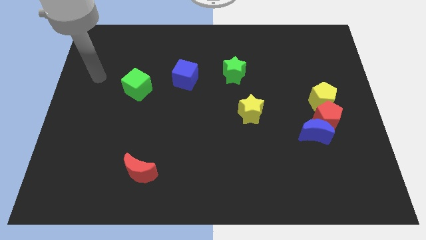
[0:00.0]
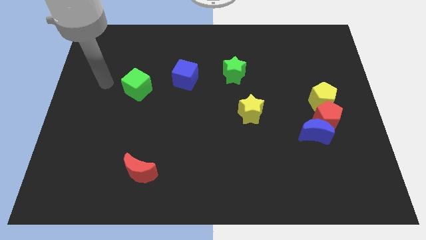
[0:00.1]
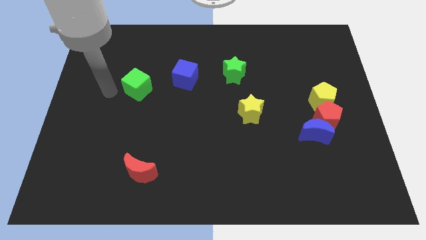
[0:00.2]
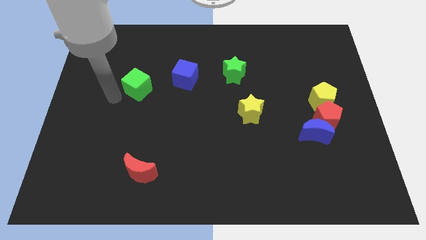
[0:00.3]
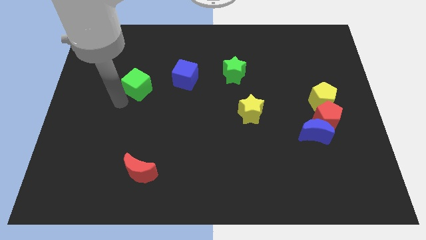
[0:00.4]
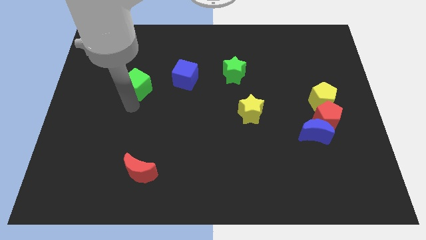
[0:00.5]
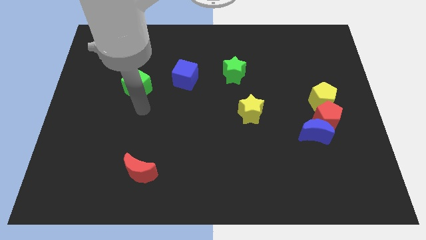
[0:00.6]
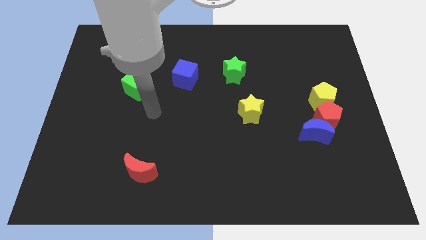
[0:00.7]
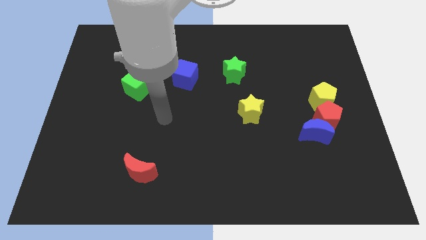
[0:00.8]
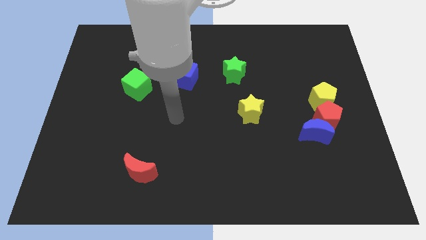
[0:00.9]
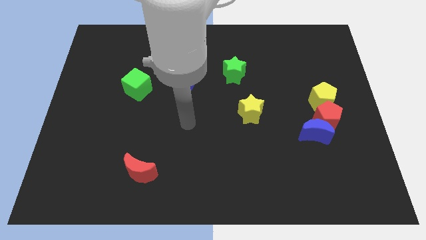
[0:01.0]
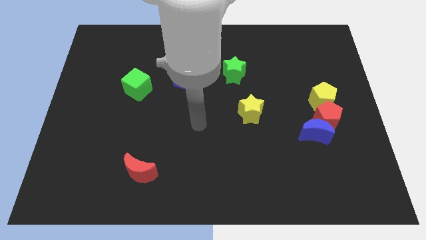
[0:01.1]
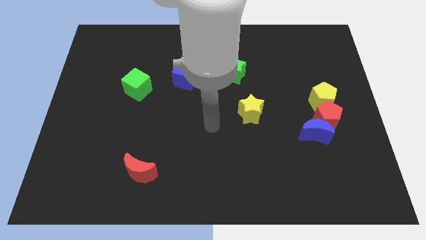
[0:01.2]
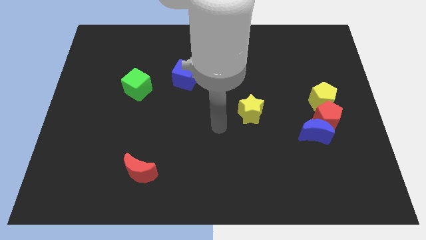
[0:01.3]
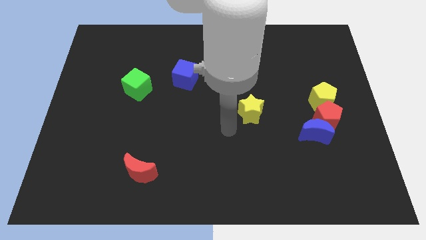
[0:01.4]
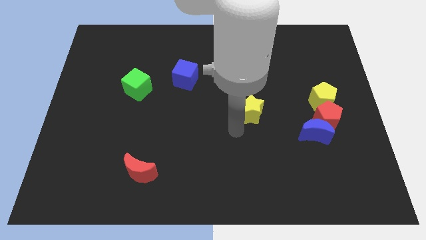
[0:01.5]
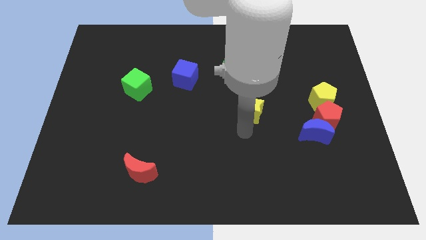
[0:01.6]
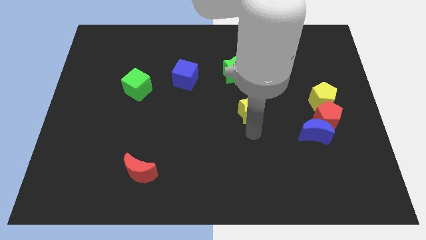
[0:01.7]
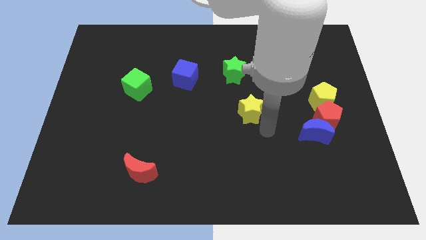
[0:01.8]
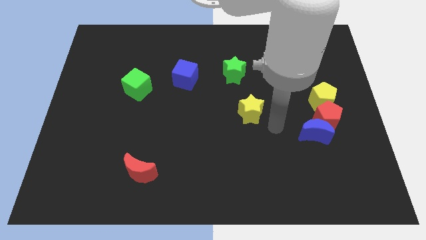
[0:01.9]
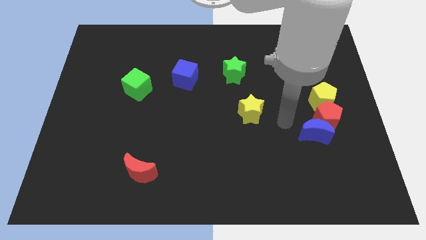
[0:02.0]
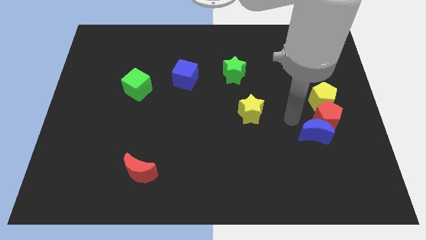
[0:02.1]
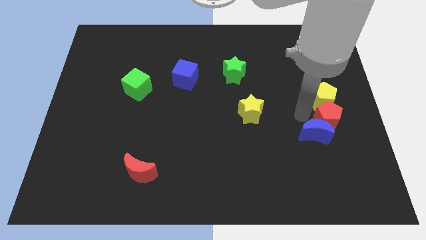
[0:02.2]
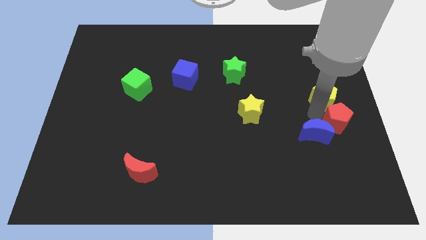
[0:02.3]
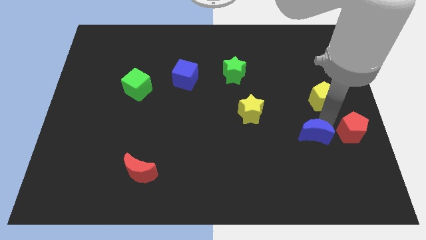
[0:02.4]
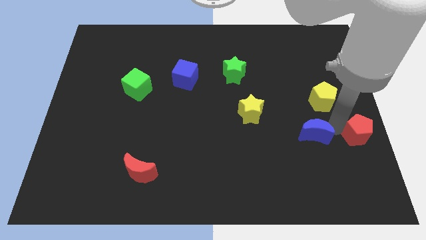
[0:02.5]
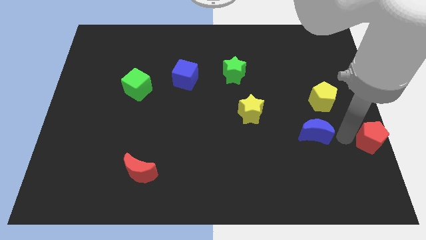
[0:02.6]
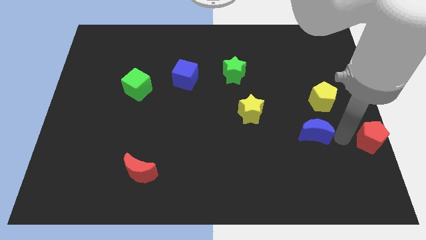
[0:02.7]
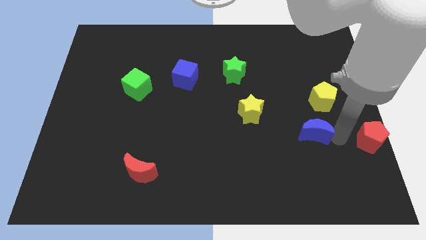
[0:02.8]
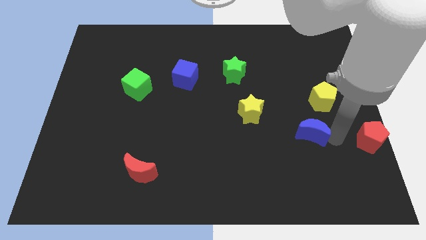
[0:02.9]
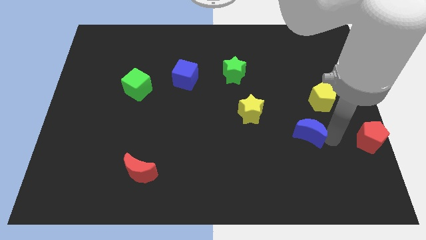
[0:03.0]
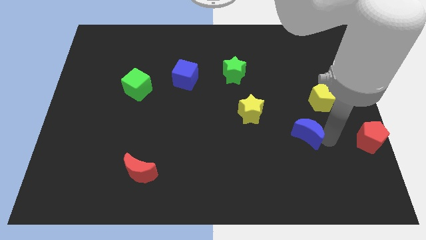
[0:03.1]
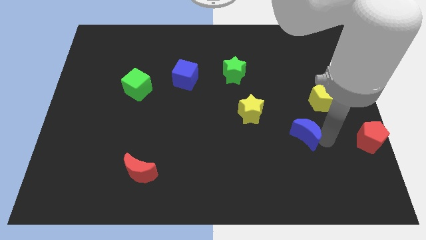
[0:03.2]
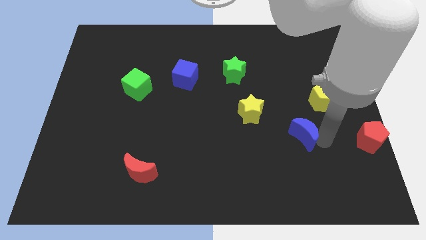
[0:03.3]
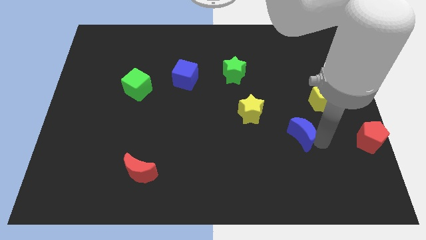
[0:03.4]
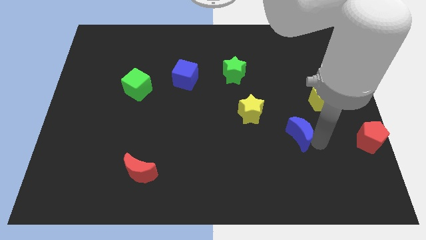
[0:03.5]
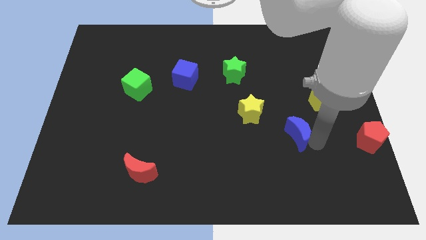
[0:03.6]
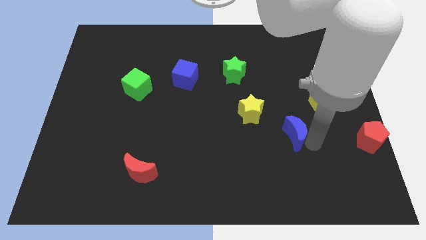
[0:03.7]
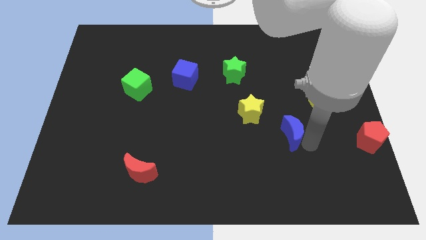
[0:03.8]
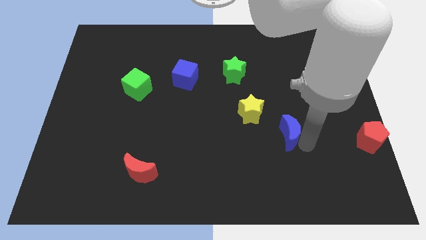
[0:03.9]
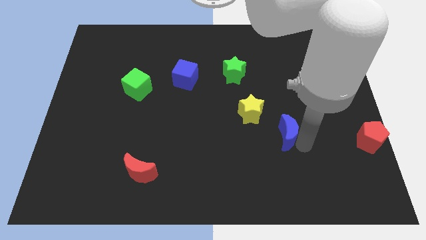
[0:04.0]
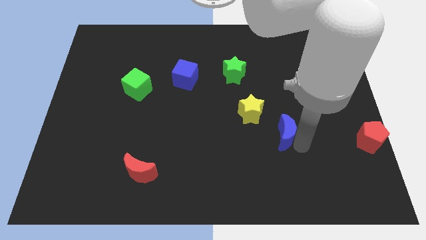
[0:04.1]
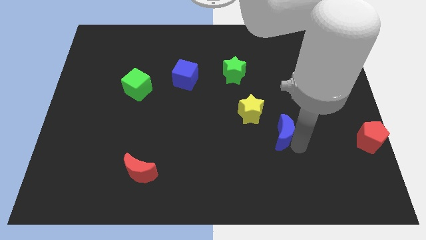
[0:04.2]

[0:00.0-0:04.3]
slightly move the blue moon left

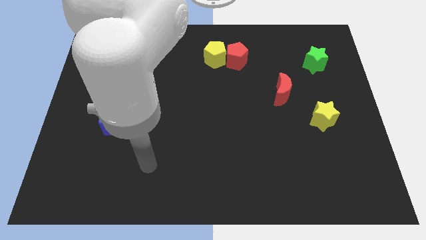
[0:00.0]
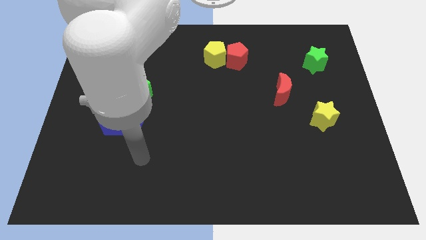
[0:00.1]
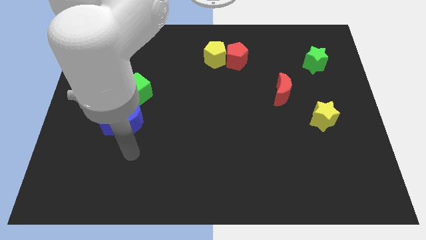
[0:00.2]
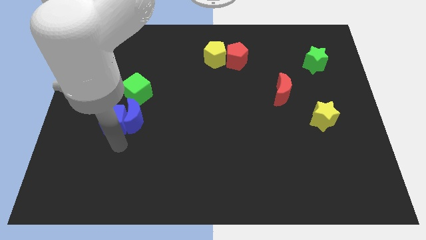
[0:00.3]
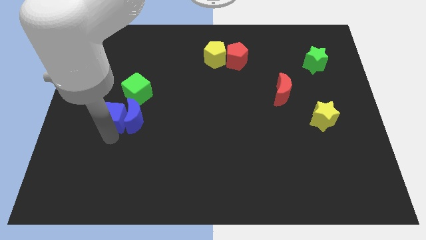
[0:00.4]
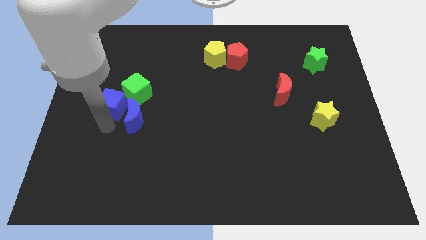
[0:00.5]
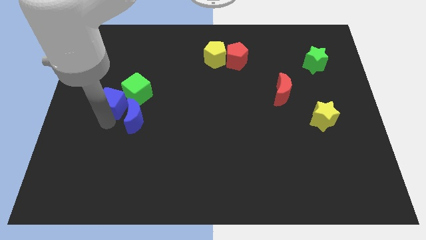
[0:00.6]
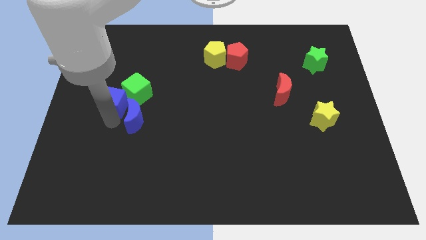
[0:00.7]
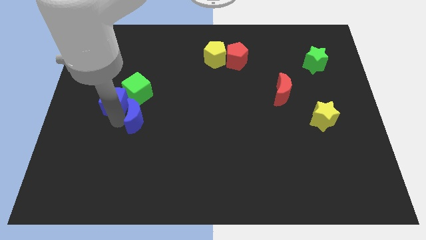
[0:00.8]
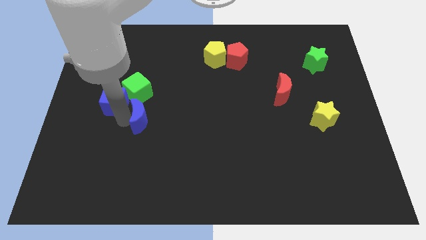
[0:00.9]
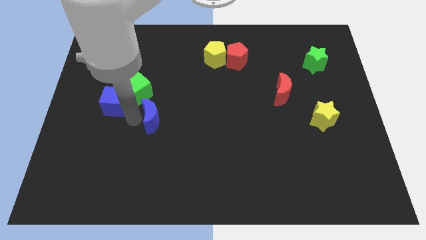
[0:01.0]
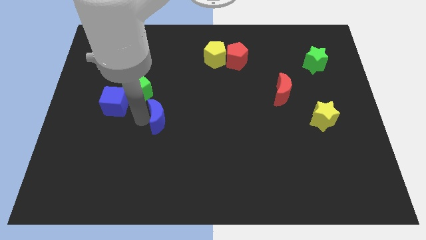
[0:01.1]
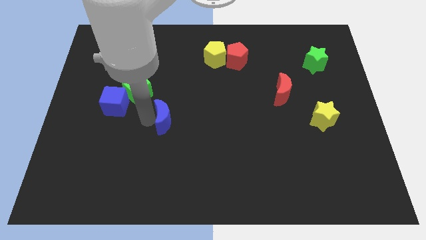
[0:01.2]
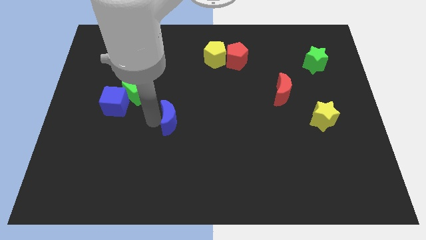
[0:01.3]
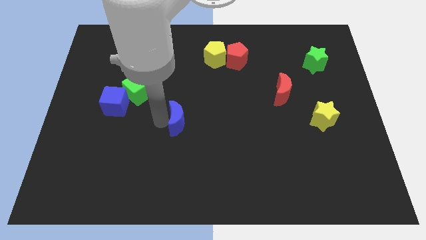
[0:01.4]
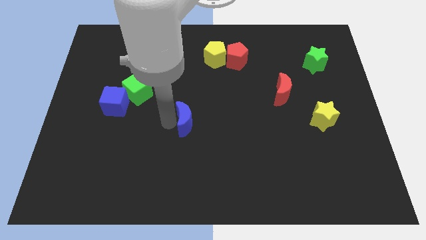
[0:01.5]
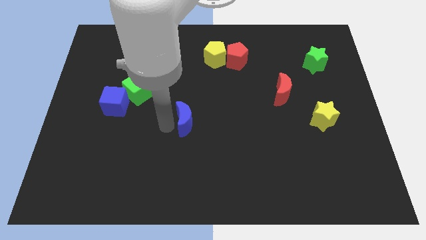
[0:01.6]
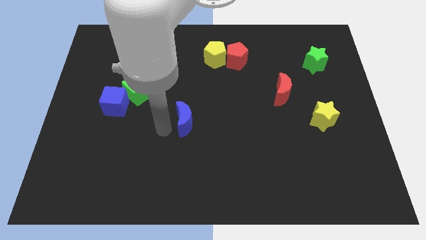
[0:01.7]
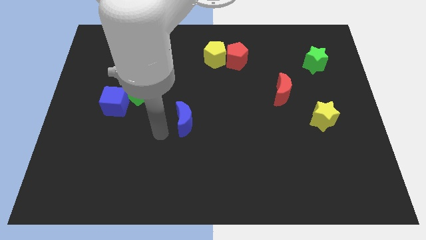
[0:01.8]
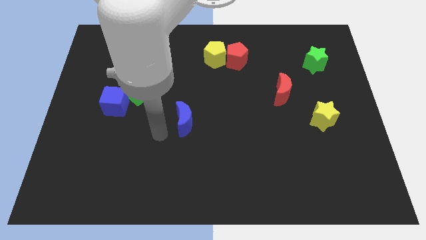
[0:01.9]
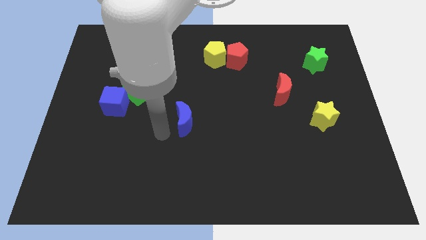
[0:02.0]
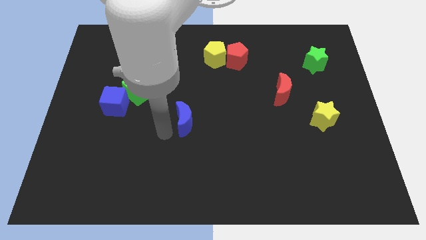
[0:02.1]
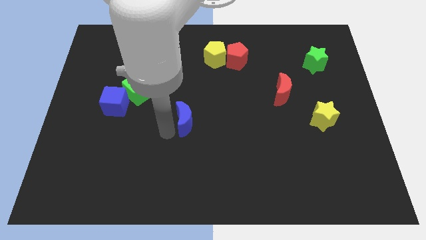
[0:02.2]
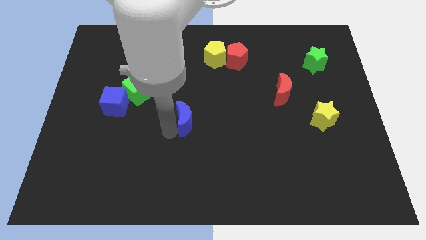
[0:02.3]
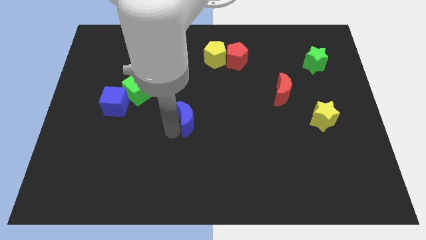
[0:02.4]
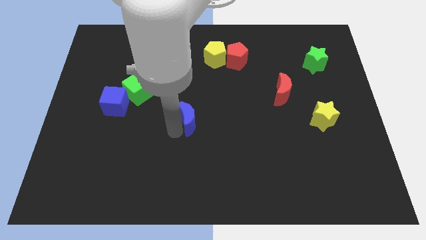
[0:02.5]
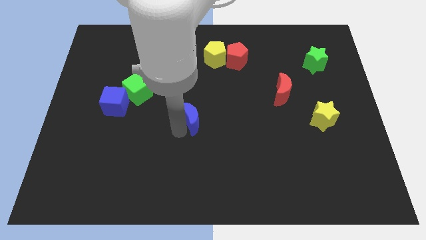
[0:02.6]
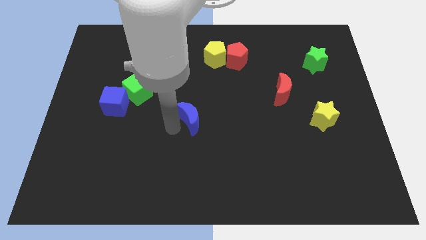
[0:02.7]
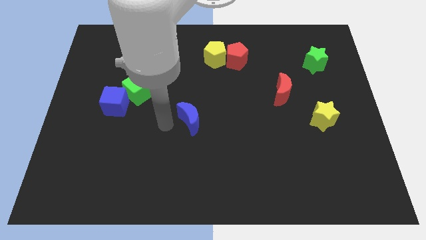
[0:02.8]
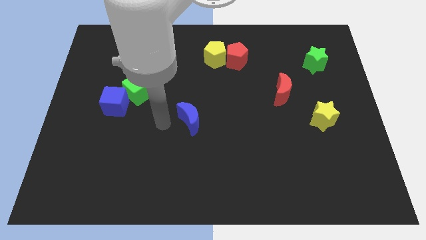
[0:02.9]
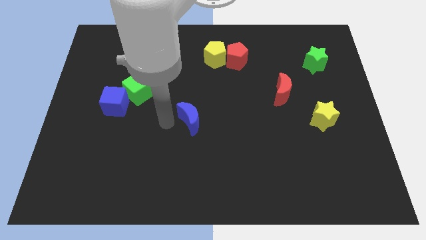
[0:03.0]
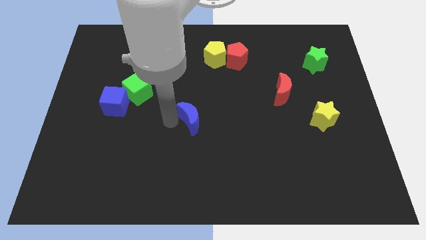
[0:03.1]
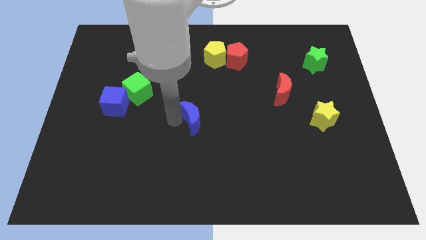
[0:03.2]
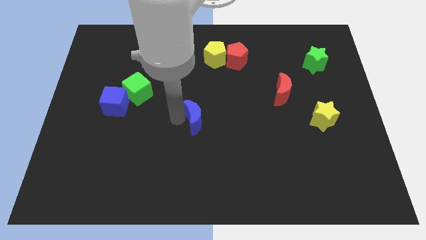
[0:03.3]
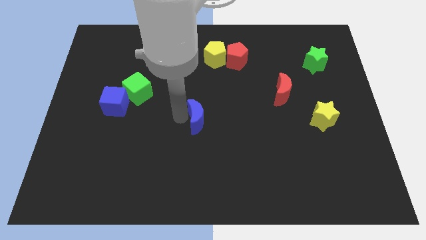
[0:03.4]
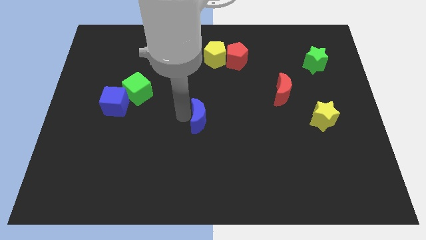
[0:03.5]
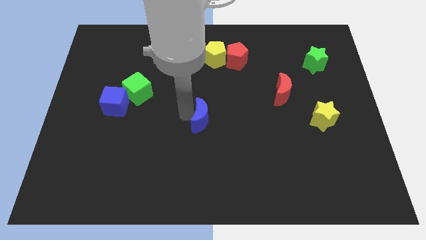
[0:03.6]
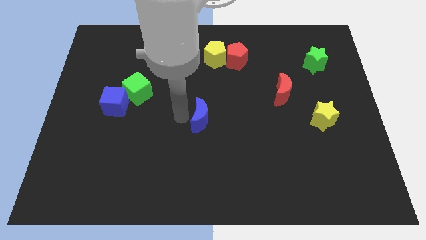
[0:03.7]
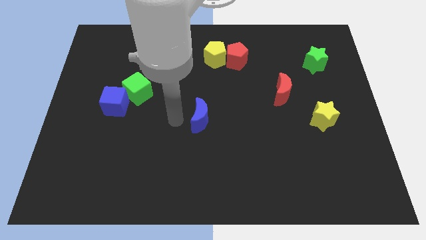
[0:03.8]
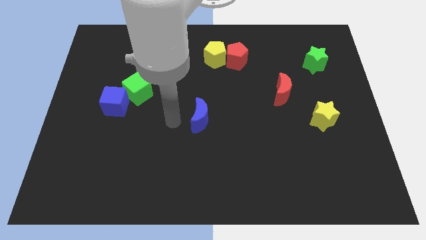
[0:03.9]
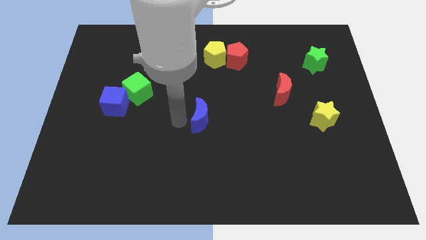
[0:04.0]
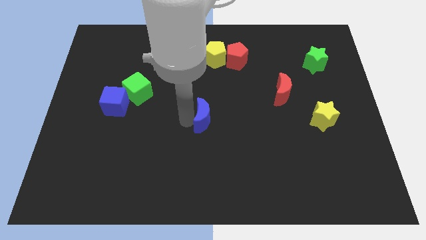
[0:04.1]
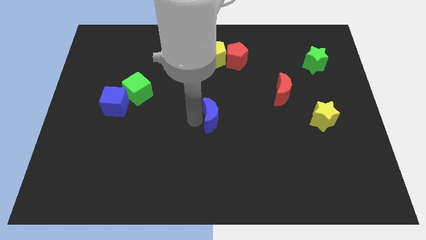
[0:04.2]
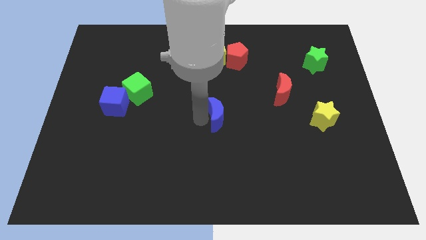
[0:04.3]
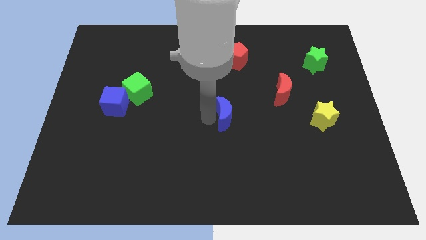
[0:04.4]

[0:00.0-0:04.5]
push the blue moon right
